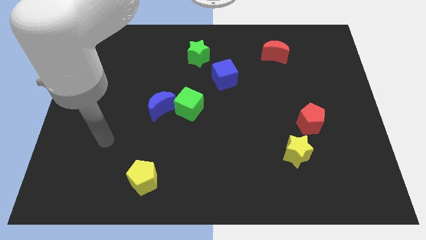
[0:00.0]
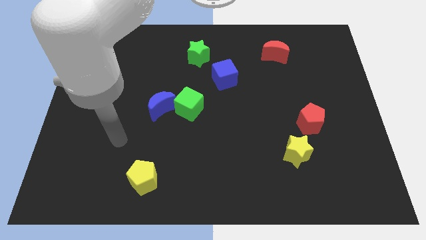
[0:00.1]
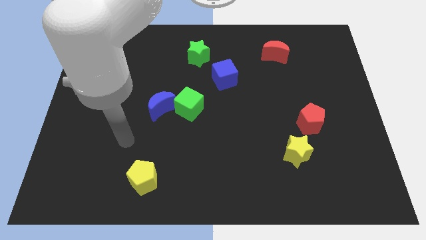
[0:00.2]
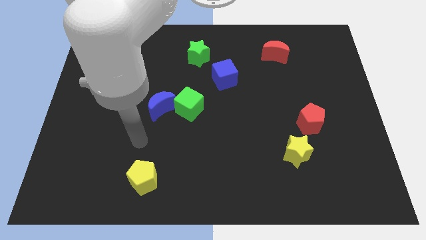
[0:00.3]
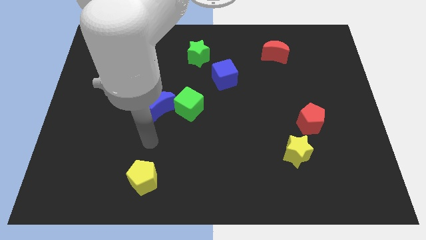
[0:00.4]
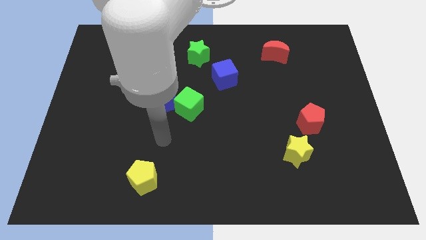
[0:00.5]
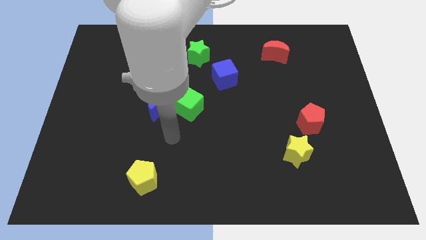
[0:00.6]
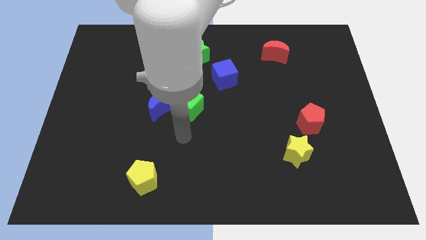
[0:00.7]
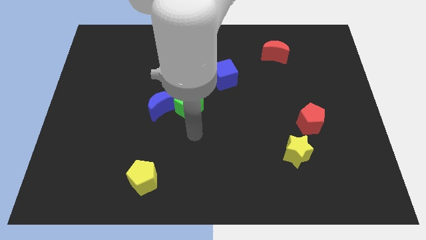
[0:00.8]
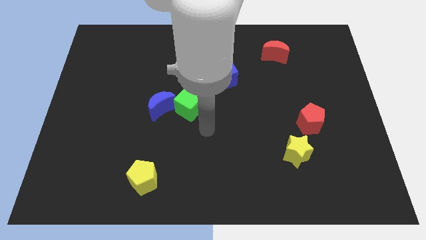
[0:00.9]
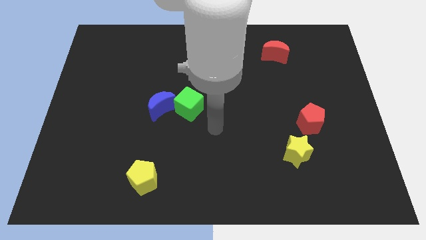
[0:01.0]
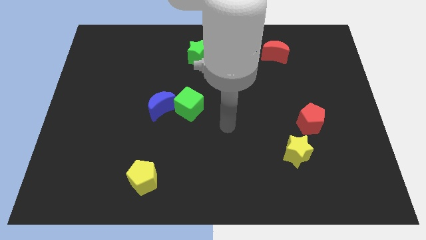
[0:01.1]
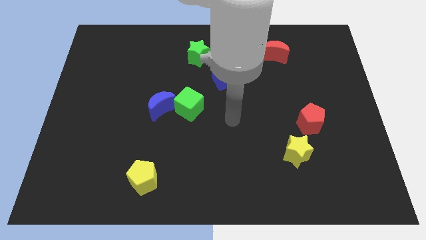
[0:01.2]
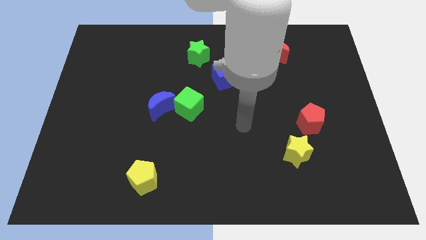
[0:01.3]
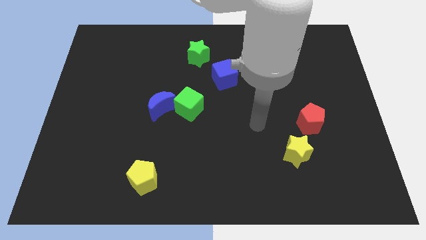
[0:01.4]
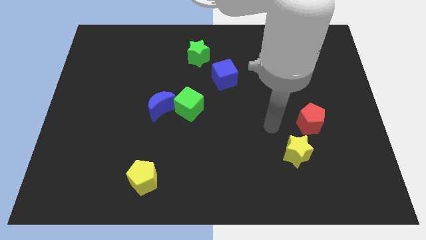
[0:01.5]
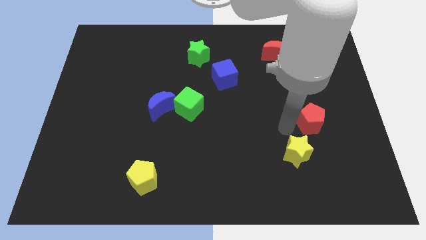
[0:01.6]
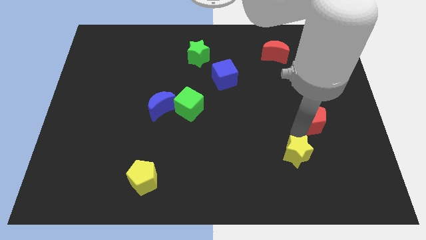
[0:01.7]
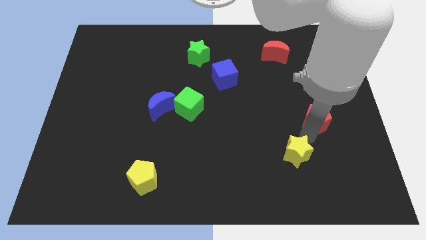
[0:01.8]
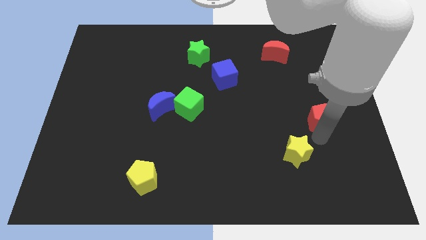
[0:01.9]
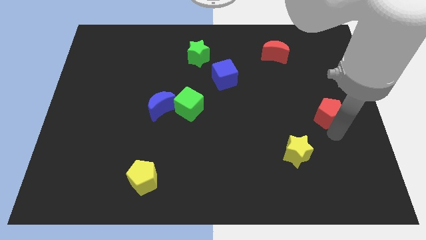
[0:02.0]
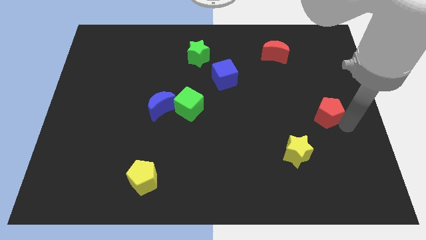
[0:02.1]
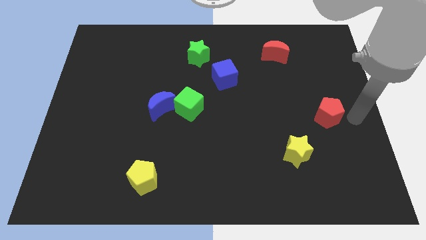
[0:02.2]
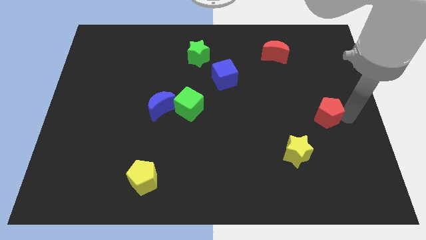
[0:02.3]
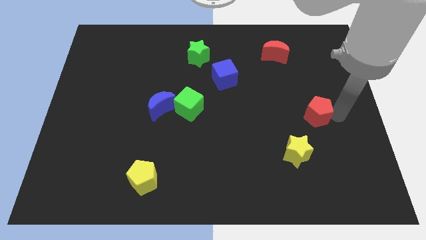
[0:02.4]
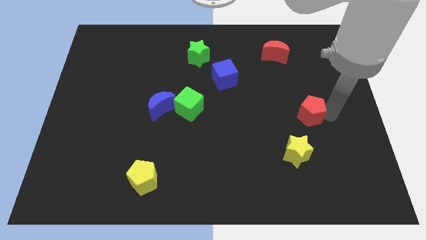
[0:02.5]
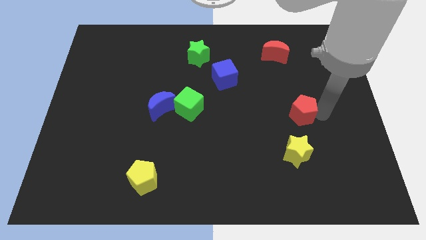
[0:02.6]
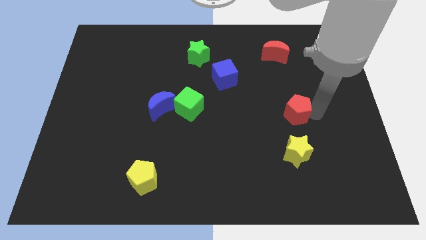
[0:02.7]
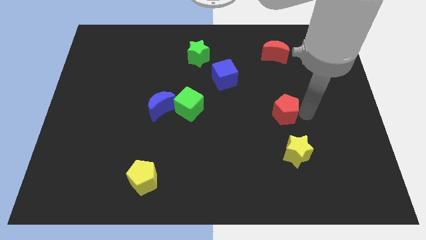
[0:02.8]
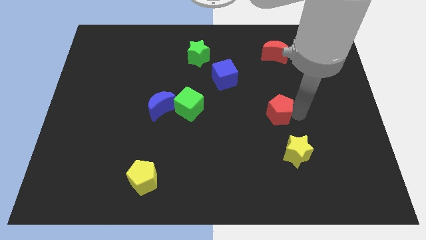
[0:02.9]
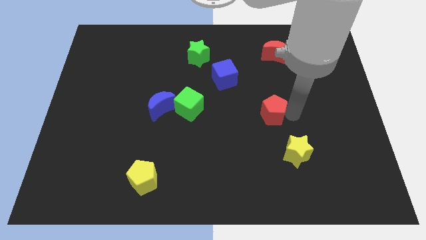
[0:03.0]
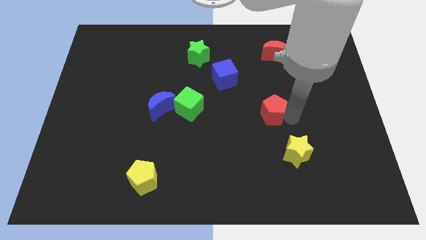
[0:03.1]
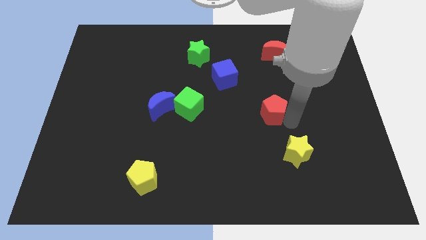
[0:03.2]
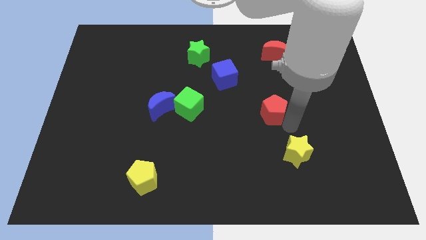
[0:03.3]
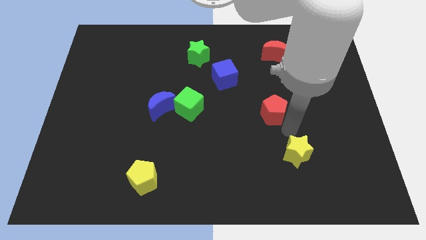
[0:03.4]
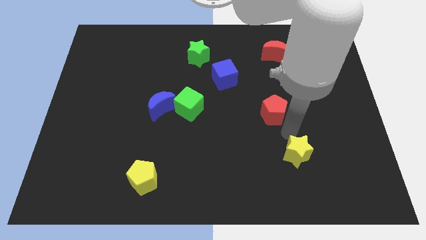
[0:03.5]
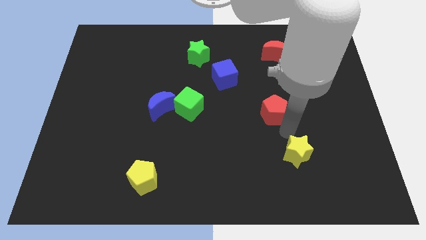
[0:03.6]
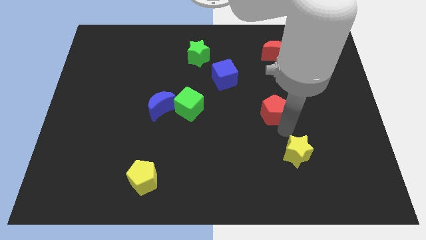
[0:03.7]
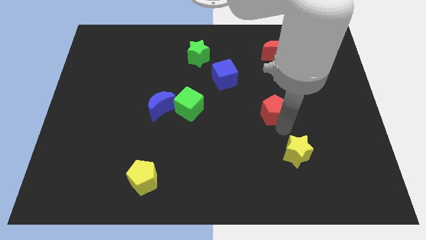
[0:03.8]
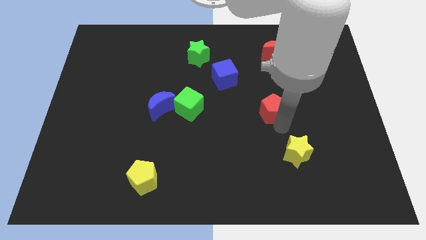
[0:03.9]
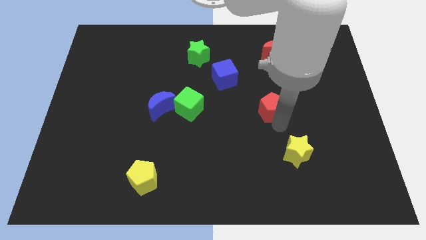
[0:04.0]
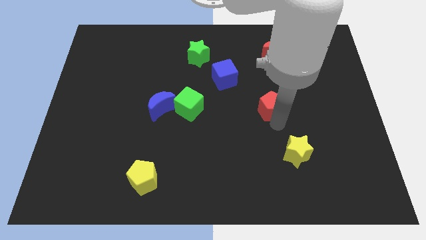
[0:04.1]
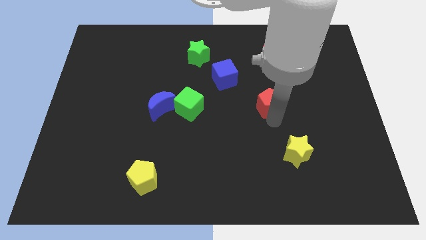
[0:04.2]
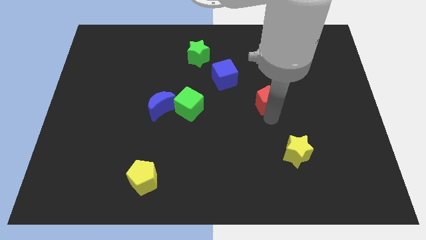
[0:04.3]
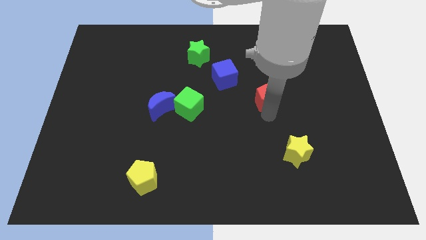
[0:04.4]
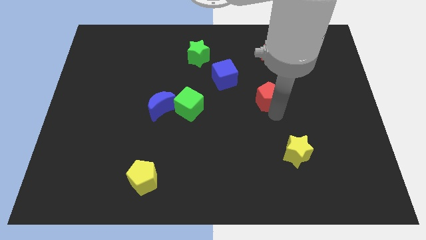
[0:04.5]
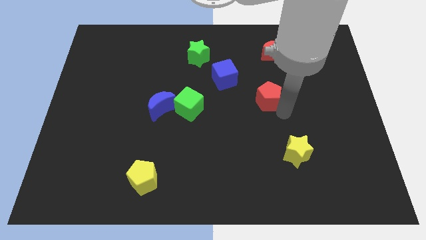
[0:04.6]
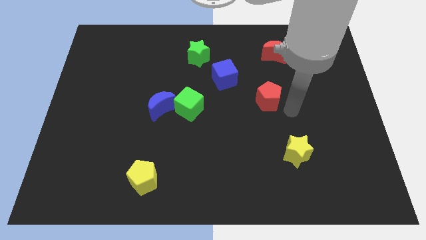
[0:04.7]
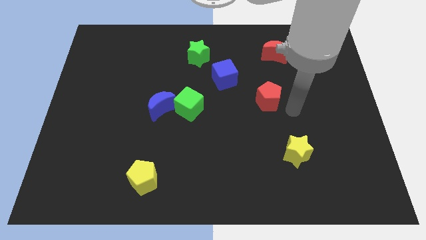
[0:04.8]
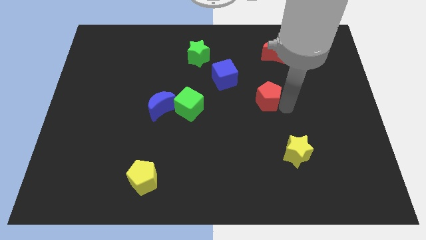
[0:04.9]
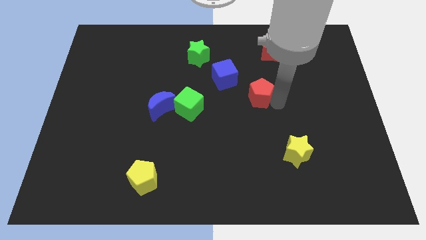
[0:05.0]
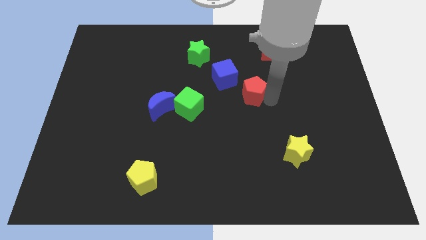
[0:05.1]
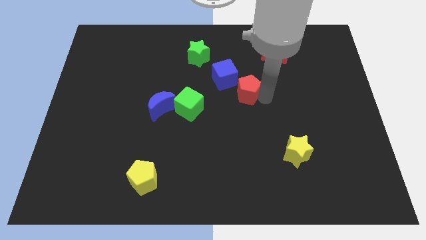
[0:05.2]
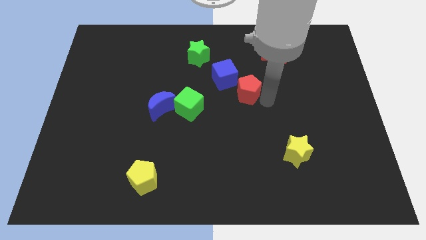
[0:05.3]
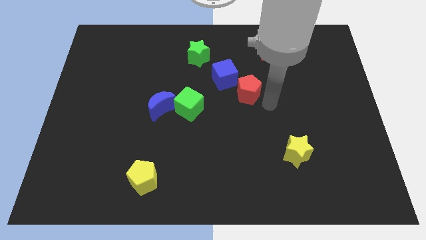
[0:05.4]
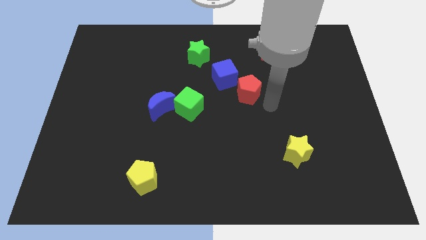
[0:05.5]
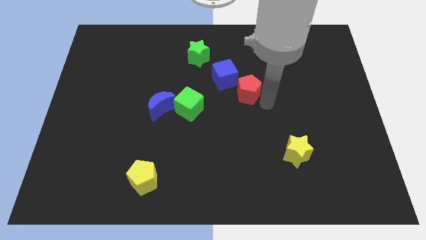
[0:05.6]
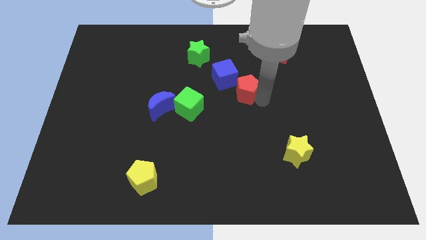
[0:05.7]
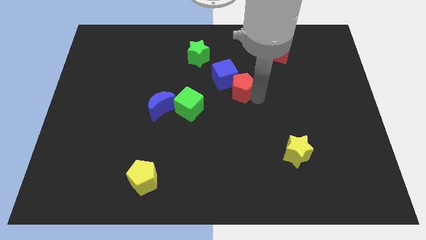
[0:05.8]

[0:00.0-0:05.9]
slide the red pentagon towards the blue cube
